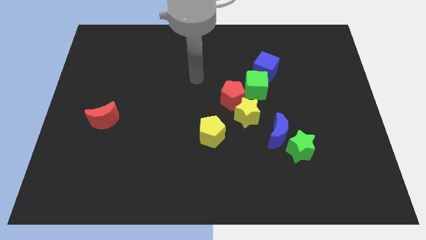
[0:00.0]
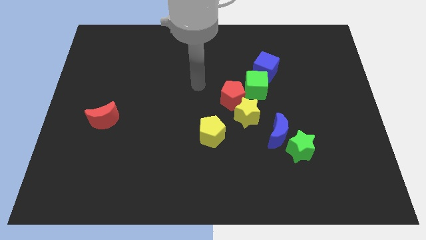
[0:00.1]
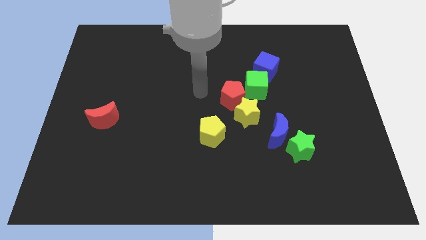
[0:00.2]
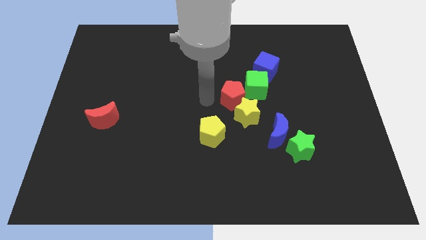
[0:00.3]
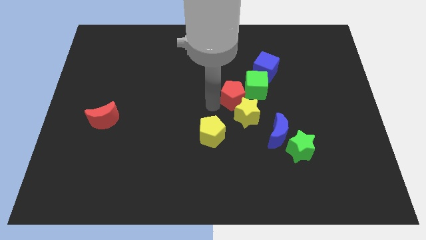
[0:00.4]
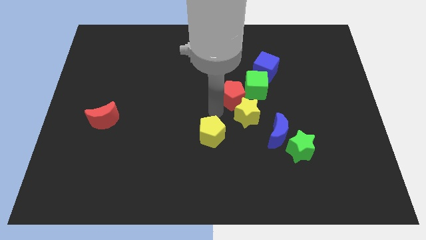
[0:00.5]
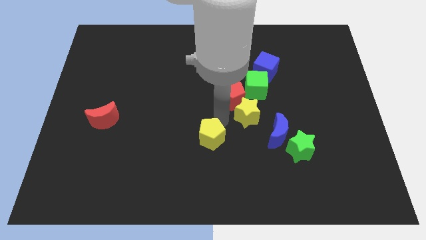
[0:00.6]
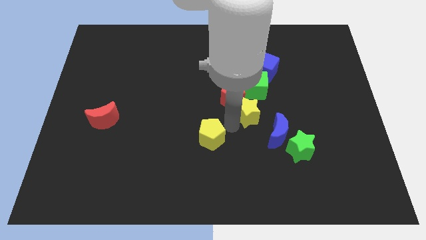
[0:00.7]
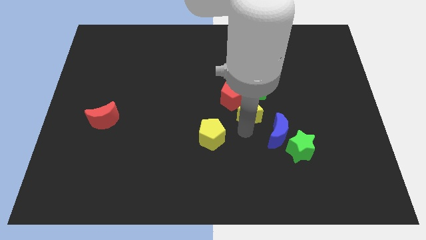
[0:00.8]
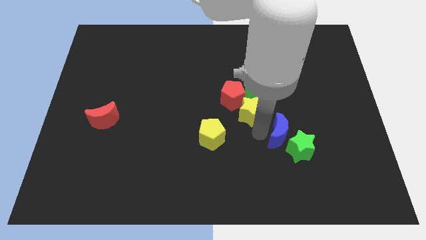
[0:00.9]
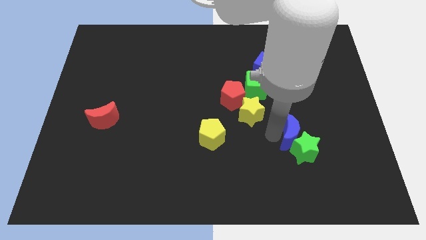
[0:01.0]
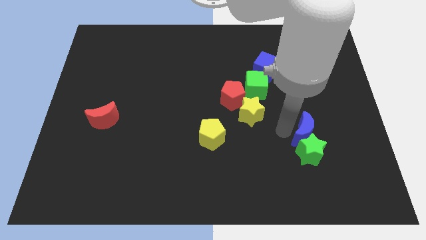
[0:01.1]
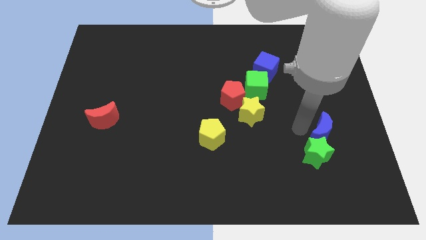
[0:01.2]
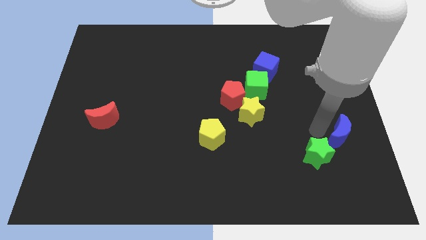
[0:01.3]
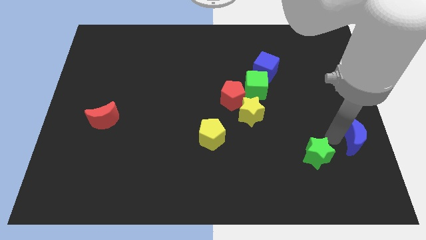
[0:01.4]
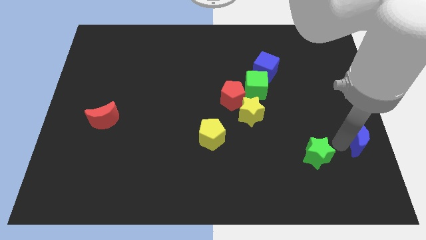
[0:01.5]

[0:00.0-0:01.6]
move the green star away from the blue moon

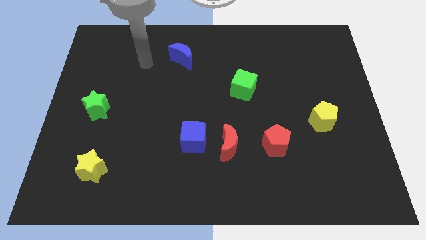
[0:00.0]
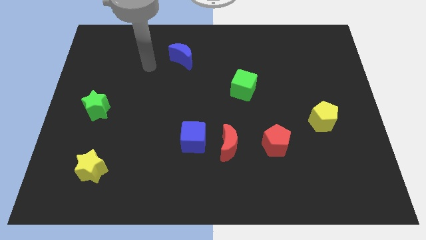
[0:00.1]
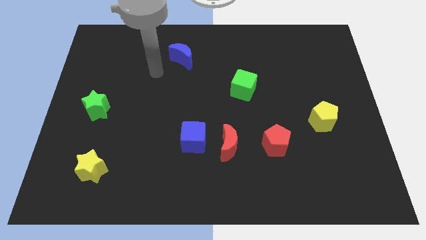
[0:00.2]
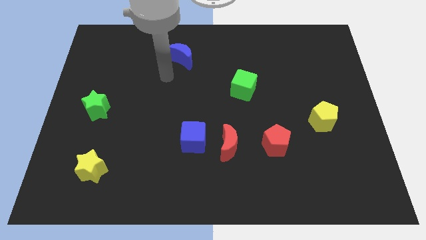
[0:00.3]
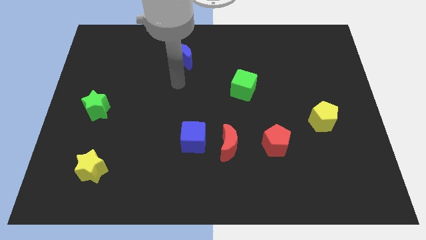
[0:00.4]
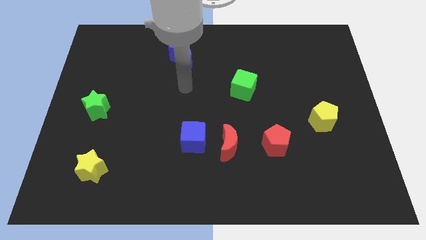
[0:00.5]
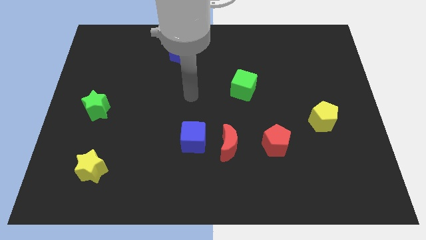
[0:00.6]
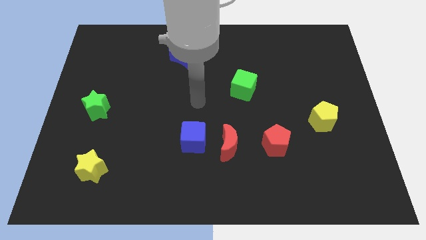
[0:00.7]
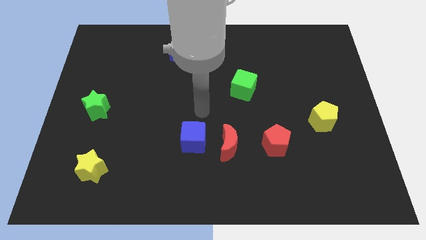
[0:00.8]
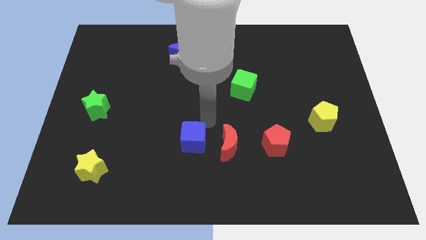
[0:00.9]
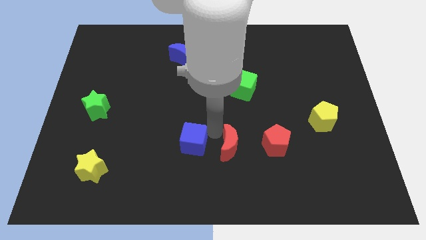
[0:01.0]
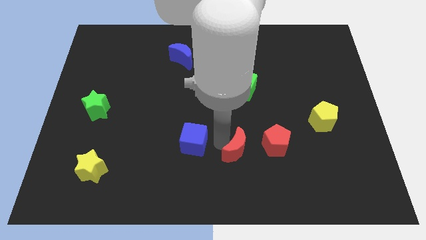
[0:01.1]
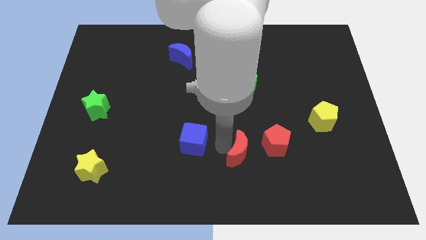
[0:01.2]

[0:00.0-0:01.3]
move the blue cube away from the red moon

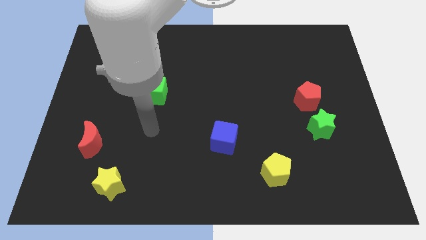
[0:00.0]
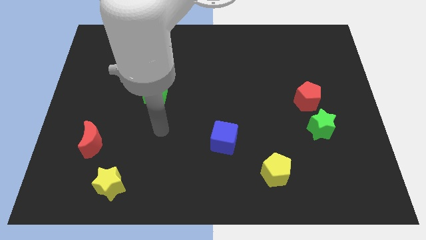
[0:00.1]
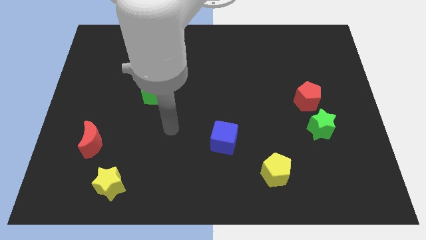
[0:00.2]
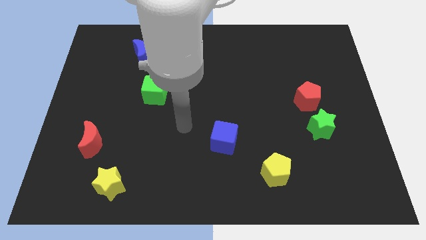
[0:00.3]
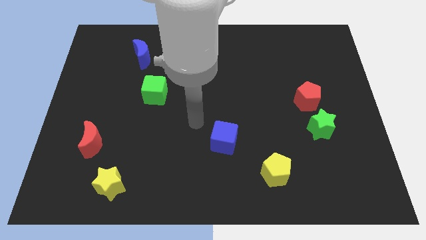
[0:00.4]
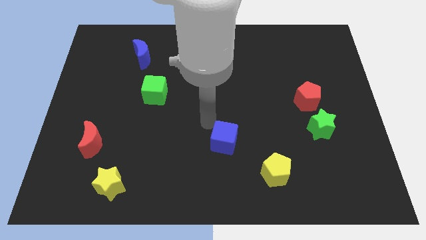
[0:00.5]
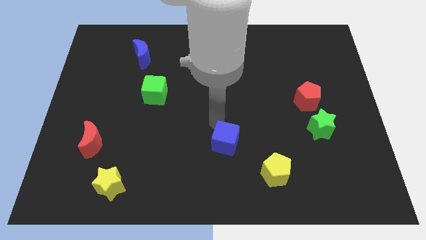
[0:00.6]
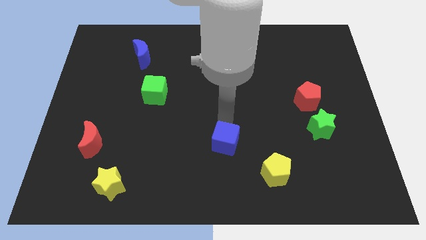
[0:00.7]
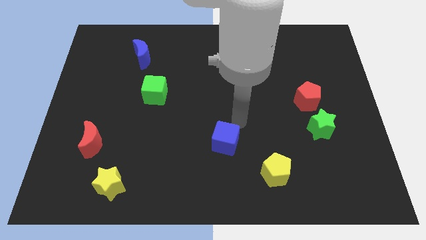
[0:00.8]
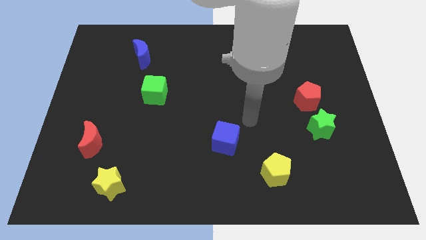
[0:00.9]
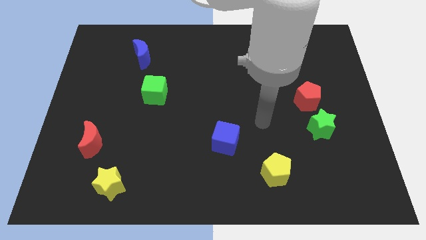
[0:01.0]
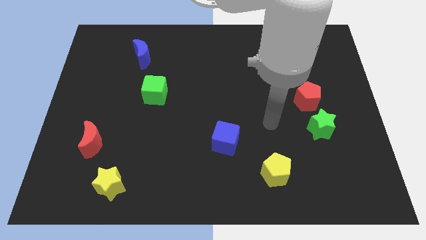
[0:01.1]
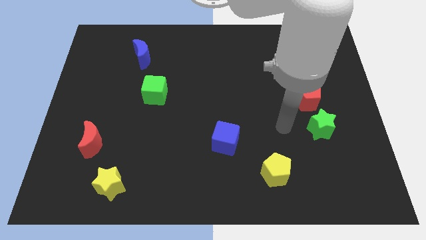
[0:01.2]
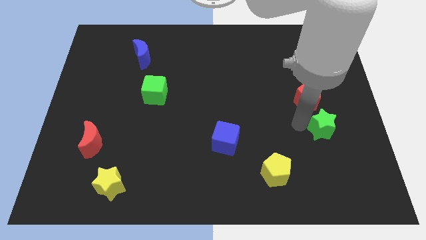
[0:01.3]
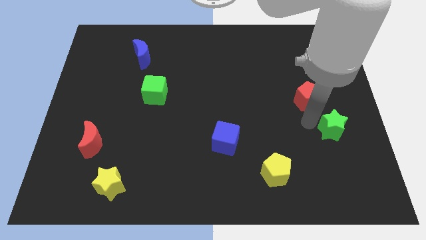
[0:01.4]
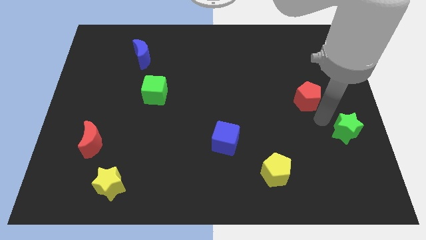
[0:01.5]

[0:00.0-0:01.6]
move the red pentagon away from the green star

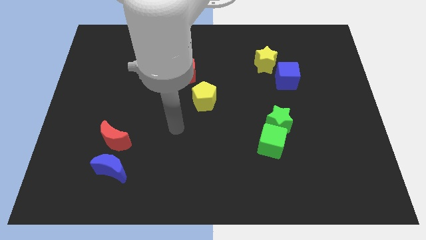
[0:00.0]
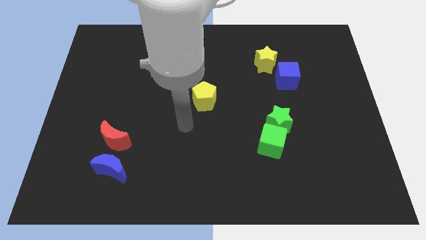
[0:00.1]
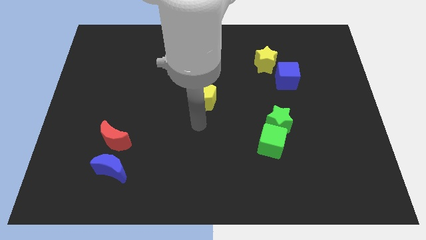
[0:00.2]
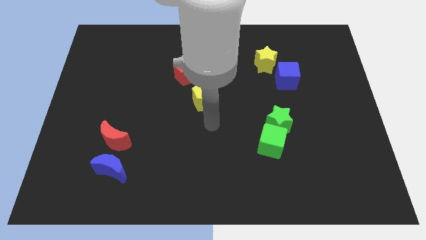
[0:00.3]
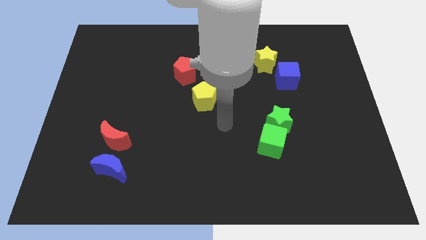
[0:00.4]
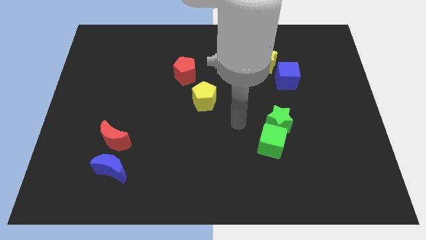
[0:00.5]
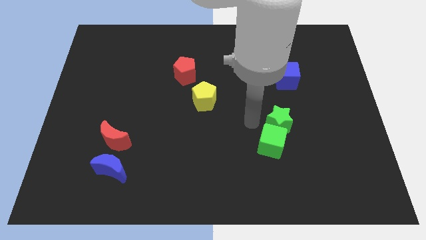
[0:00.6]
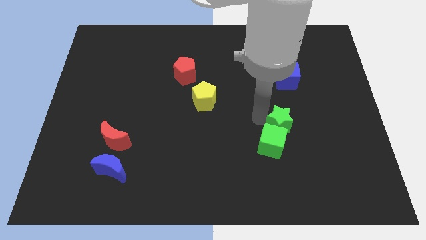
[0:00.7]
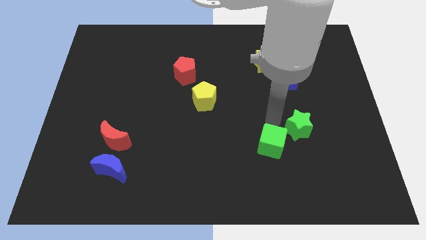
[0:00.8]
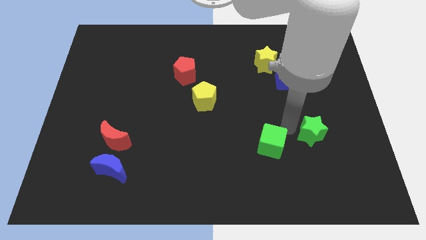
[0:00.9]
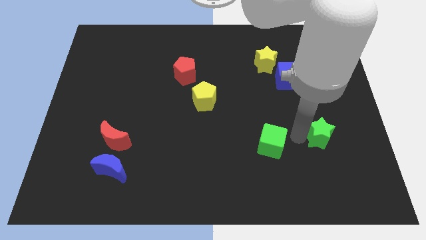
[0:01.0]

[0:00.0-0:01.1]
separate the green cube from the green star

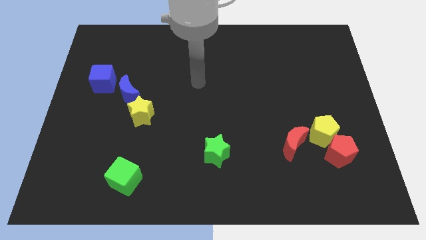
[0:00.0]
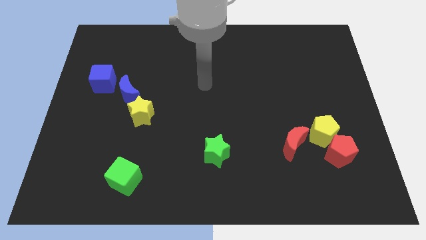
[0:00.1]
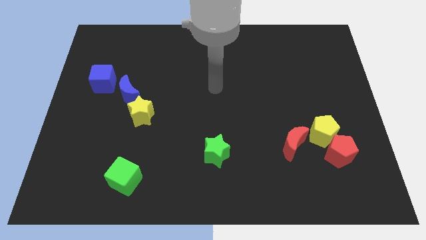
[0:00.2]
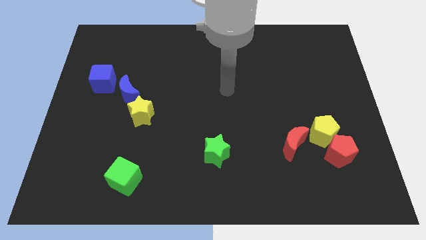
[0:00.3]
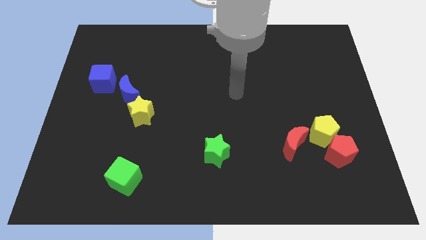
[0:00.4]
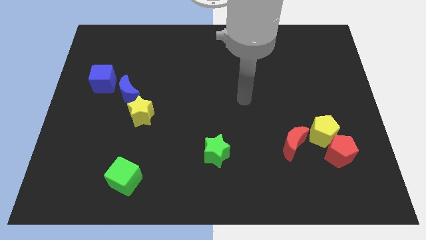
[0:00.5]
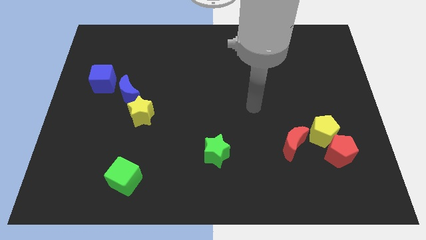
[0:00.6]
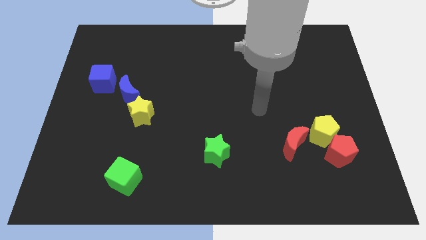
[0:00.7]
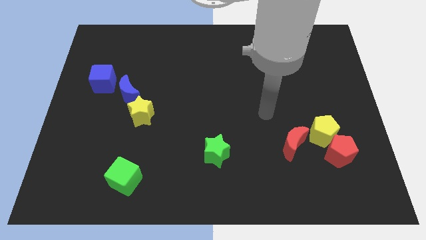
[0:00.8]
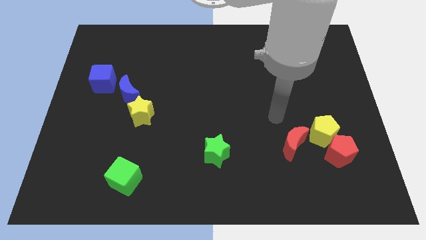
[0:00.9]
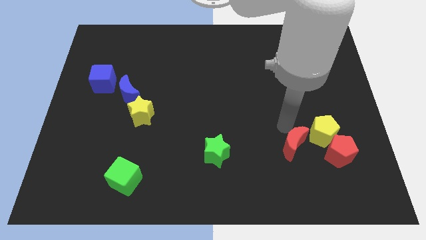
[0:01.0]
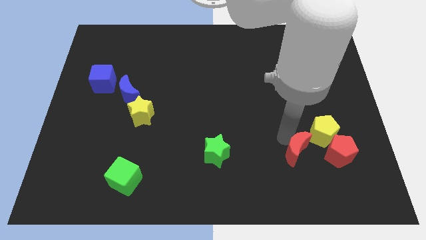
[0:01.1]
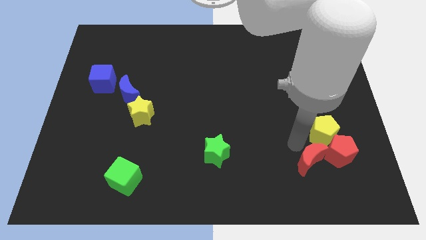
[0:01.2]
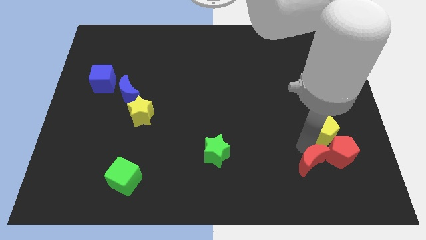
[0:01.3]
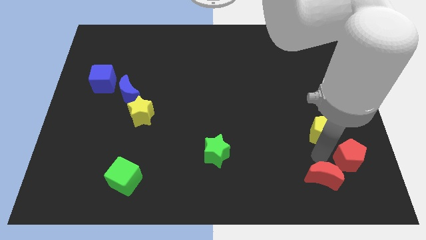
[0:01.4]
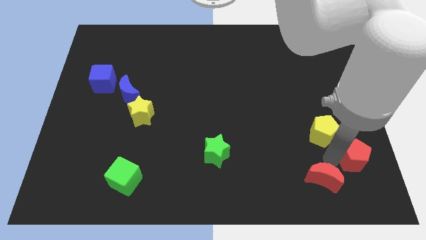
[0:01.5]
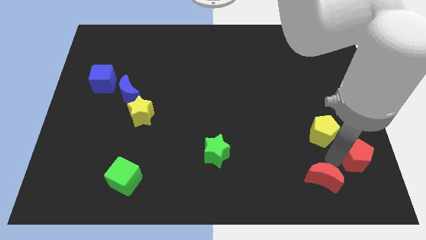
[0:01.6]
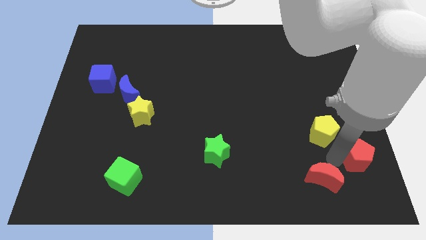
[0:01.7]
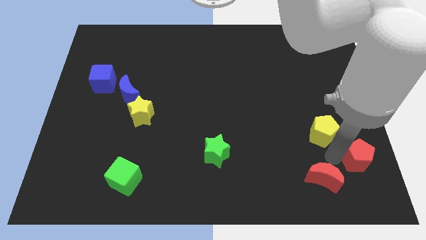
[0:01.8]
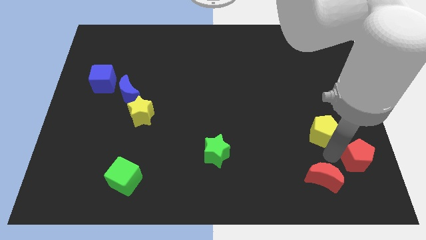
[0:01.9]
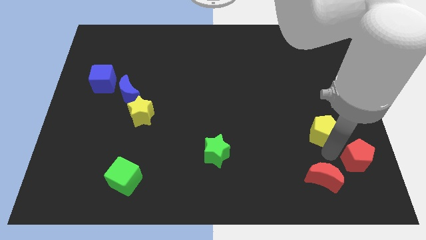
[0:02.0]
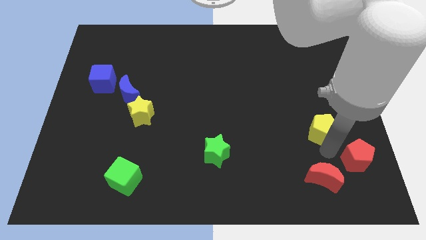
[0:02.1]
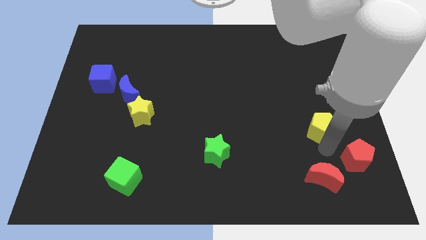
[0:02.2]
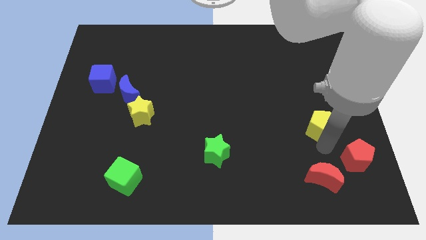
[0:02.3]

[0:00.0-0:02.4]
pull the yellow pentagon apart from the red pentagon and red moon

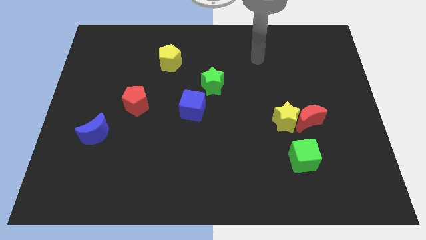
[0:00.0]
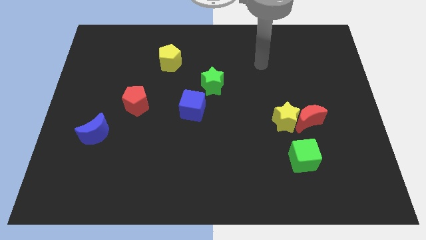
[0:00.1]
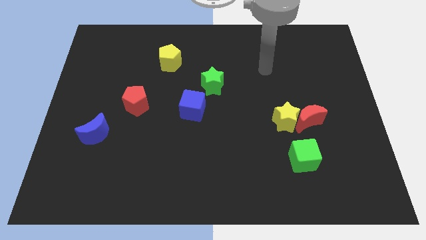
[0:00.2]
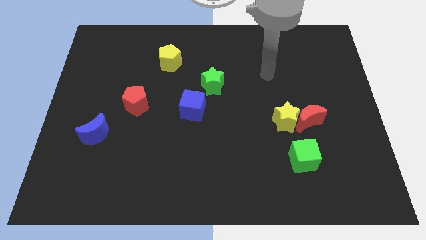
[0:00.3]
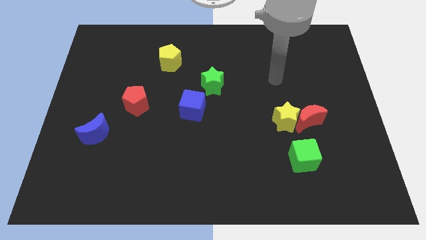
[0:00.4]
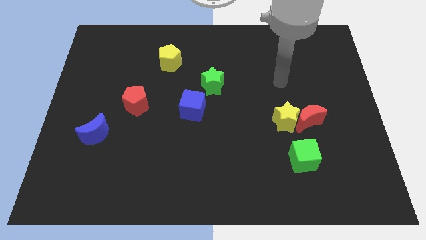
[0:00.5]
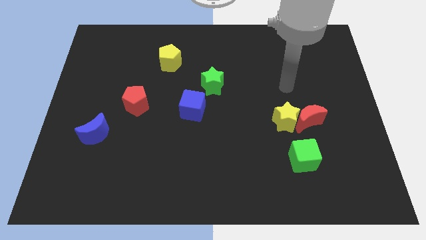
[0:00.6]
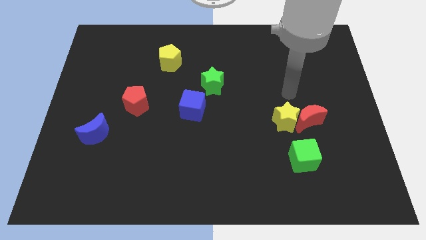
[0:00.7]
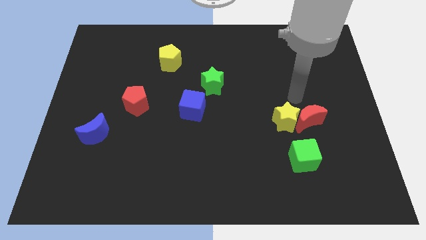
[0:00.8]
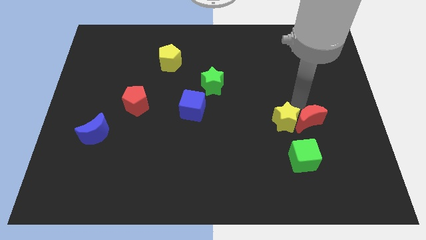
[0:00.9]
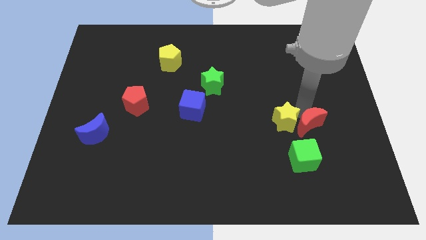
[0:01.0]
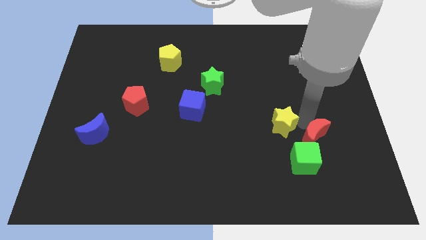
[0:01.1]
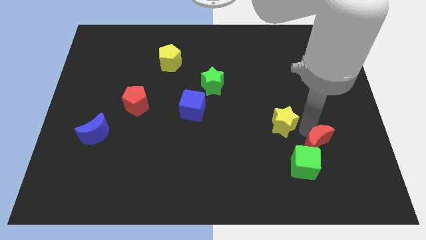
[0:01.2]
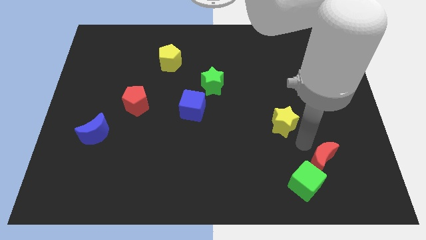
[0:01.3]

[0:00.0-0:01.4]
move the yellow star away from the red moon and green cube

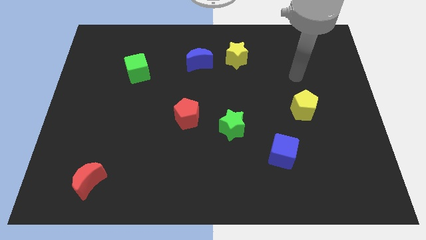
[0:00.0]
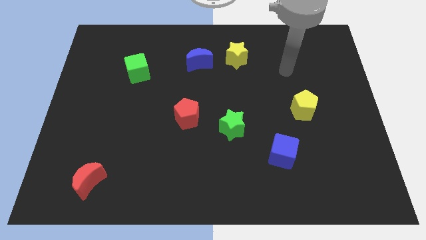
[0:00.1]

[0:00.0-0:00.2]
pull the blue moon apart from the yellow star
